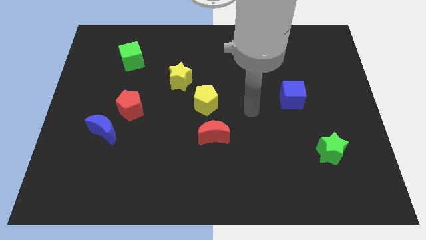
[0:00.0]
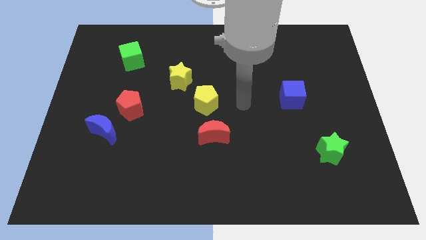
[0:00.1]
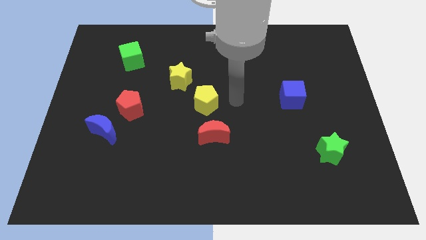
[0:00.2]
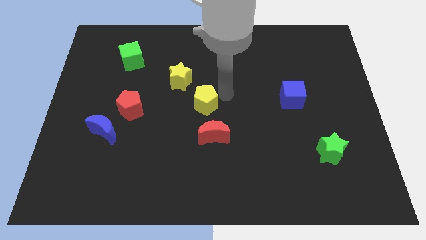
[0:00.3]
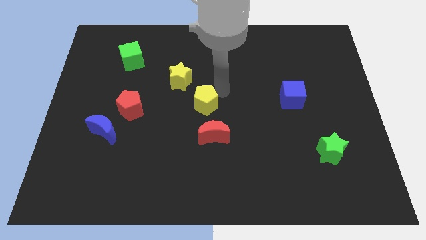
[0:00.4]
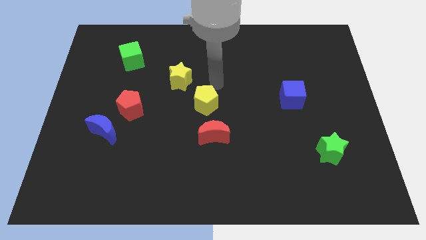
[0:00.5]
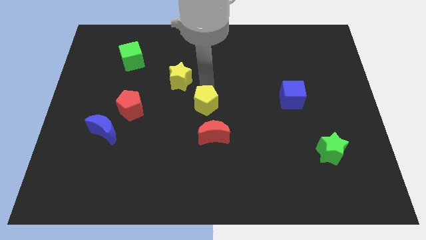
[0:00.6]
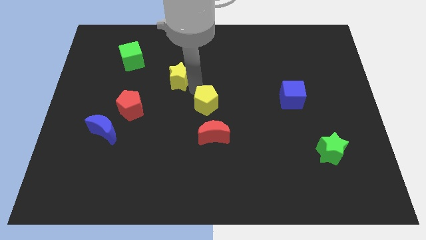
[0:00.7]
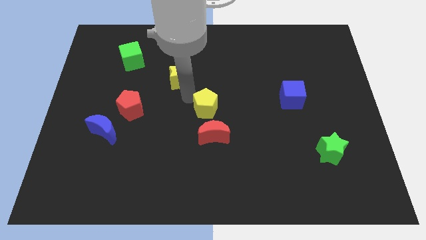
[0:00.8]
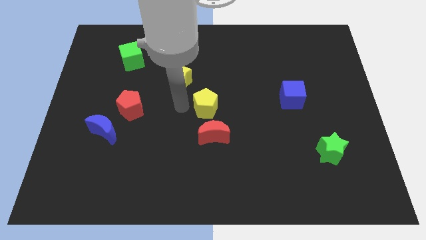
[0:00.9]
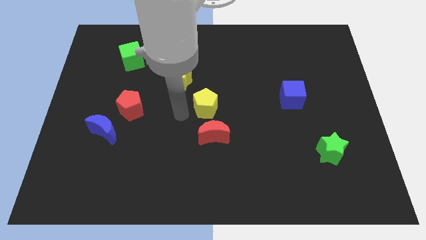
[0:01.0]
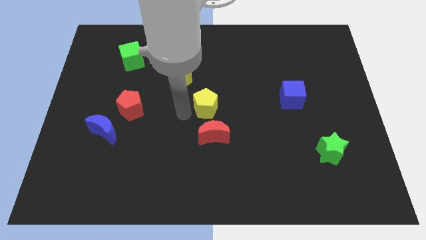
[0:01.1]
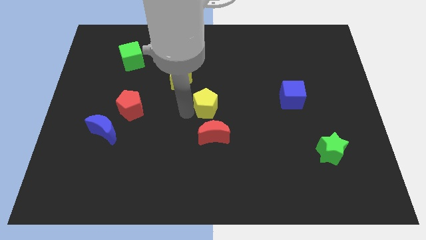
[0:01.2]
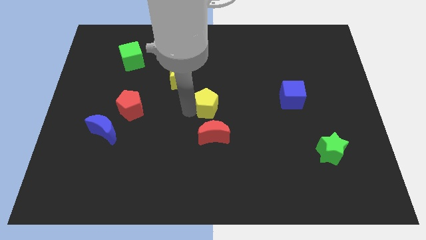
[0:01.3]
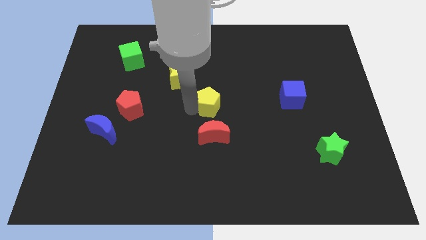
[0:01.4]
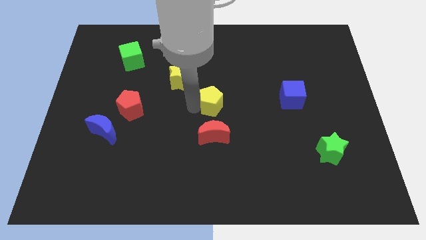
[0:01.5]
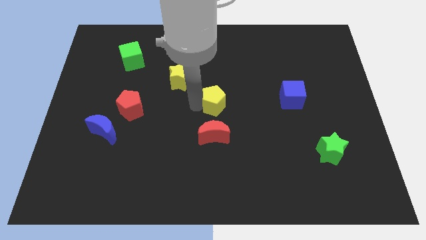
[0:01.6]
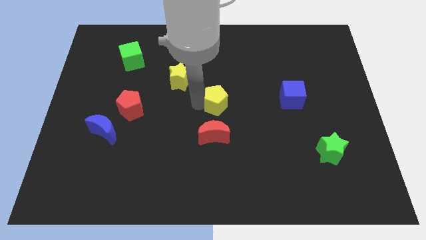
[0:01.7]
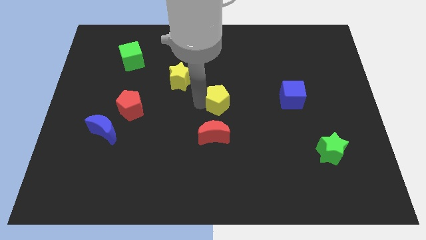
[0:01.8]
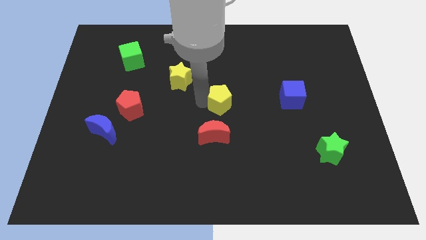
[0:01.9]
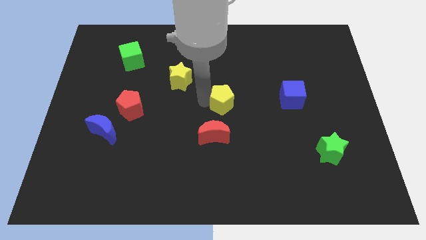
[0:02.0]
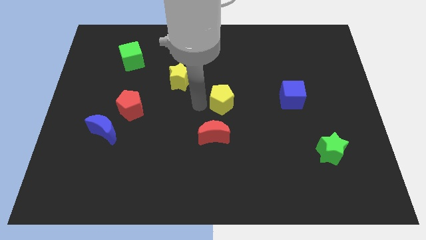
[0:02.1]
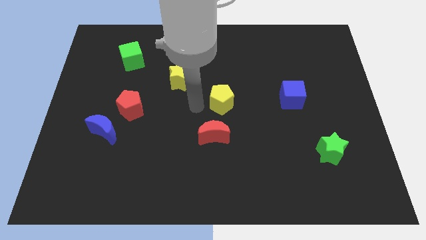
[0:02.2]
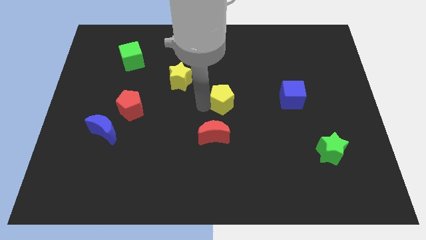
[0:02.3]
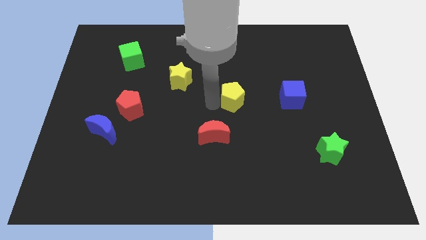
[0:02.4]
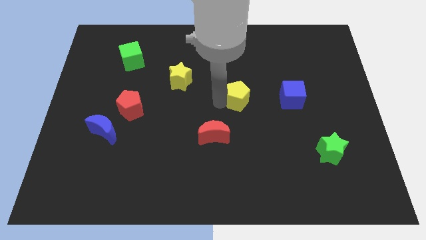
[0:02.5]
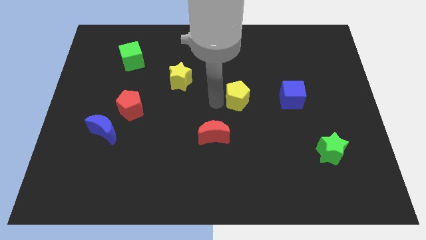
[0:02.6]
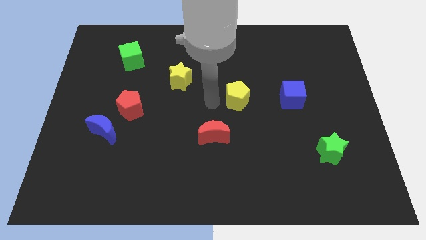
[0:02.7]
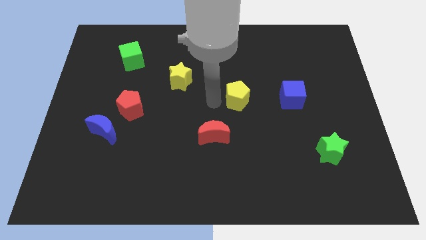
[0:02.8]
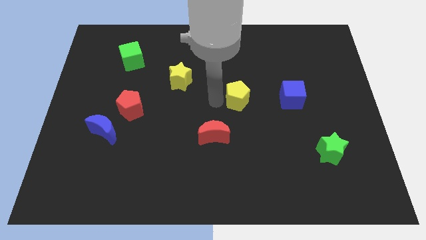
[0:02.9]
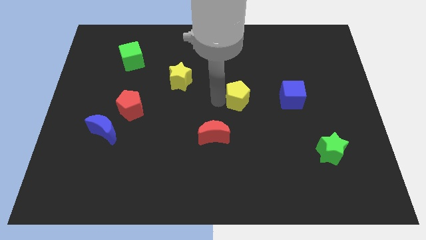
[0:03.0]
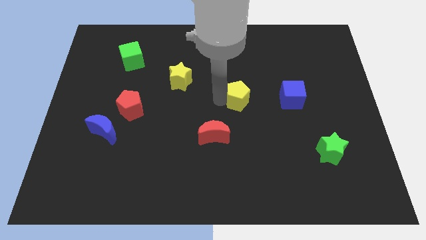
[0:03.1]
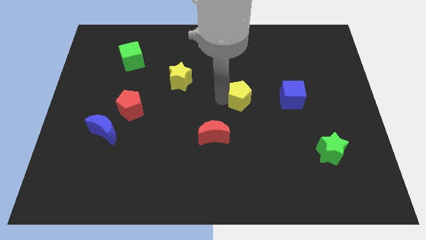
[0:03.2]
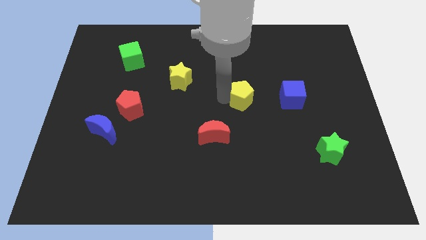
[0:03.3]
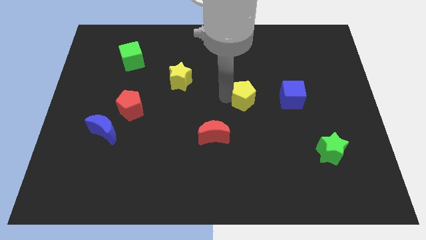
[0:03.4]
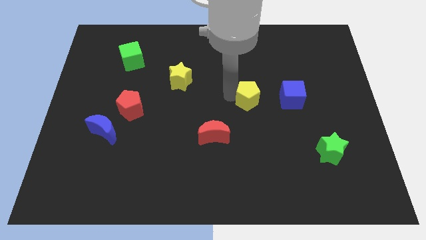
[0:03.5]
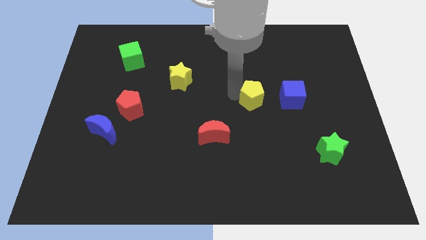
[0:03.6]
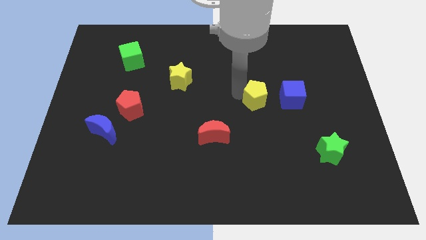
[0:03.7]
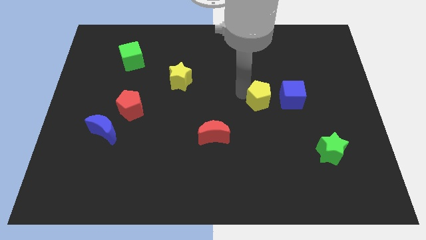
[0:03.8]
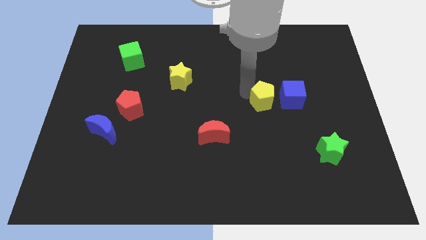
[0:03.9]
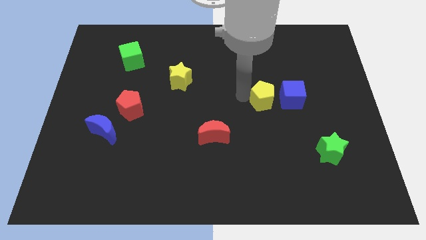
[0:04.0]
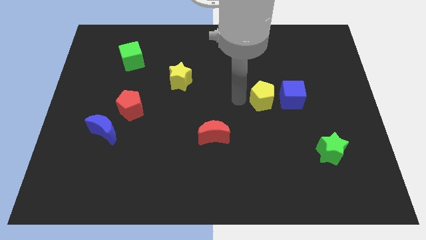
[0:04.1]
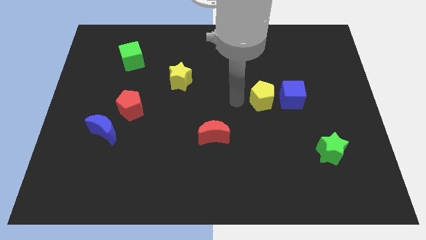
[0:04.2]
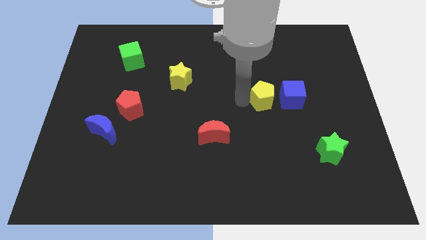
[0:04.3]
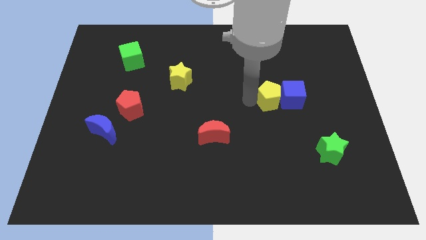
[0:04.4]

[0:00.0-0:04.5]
slide the yellow pentagon close to the blue cube

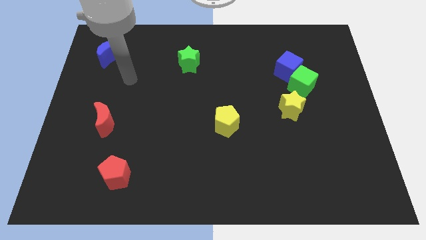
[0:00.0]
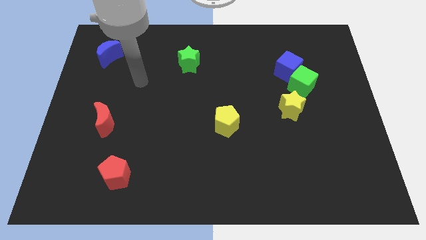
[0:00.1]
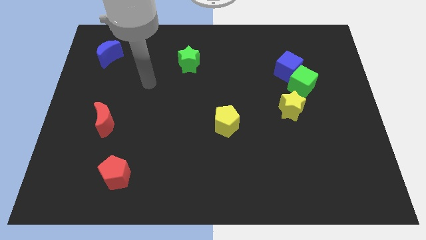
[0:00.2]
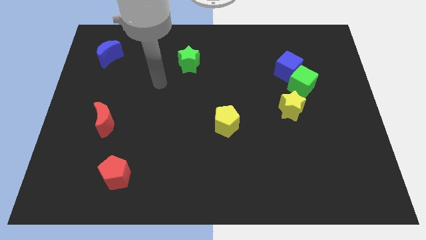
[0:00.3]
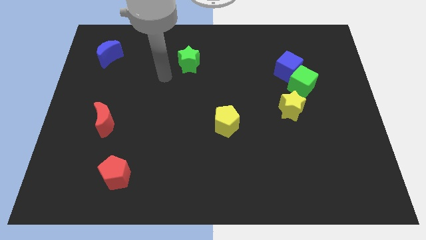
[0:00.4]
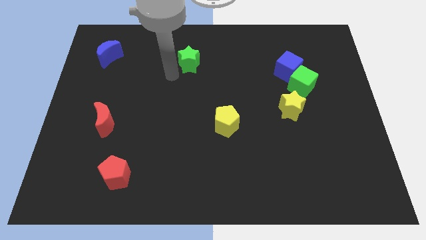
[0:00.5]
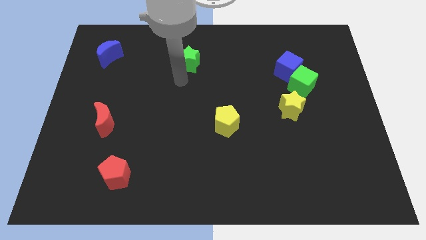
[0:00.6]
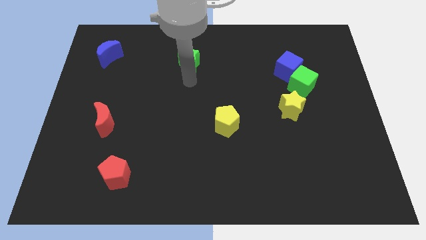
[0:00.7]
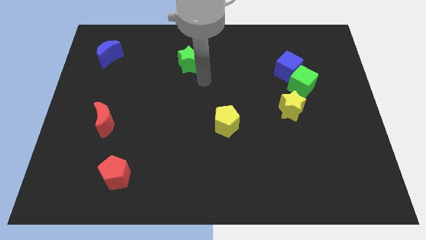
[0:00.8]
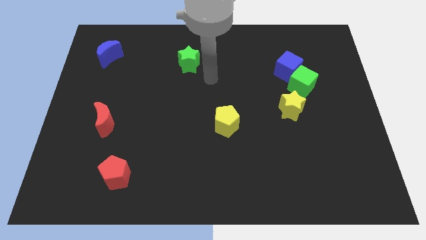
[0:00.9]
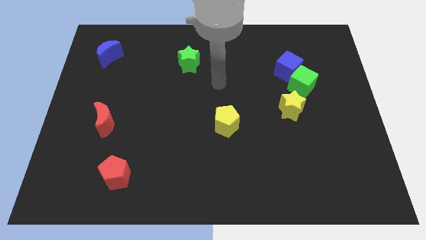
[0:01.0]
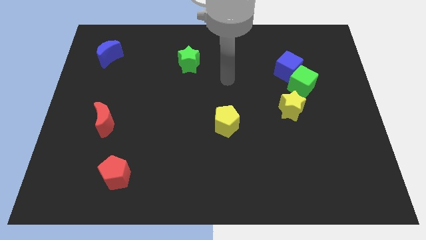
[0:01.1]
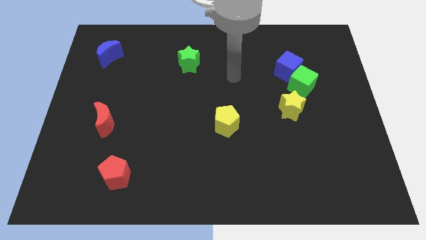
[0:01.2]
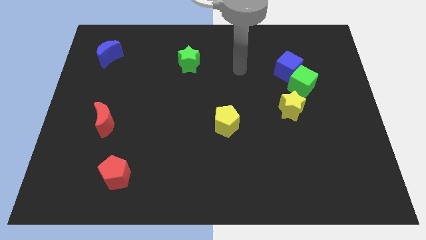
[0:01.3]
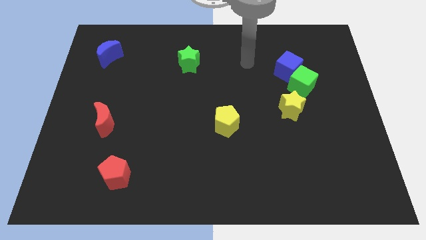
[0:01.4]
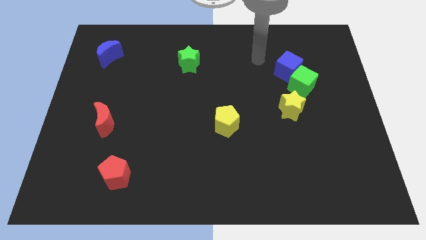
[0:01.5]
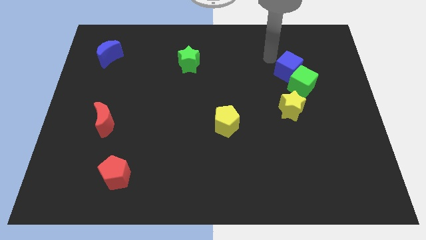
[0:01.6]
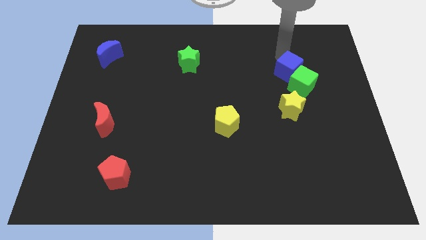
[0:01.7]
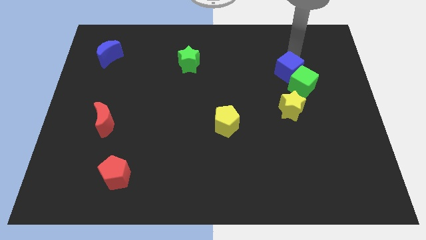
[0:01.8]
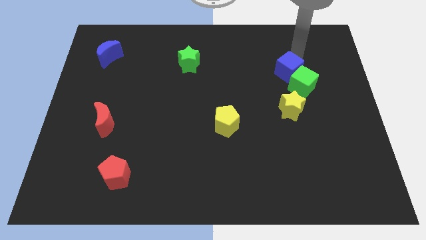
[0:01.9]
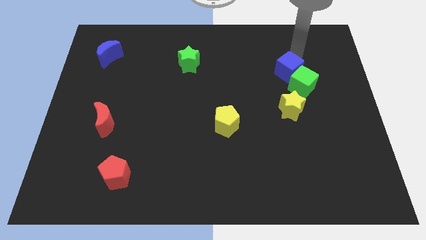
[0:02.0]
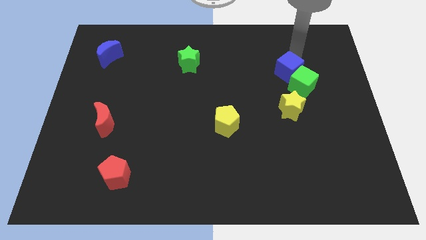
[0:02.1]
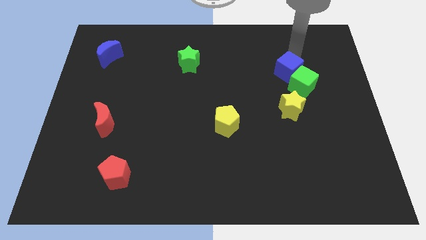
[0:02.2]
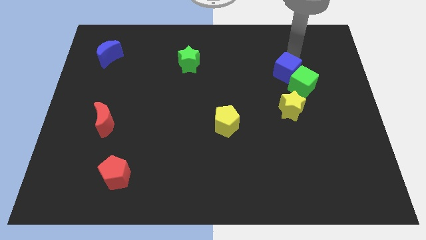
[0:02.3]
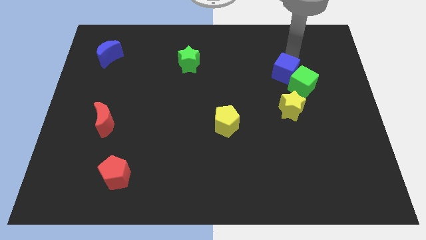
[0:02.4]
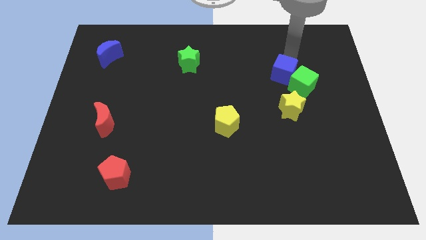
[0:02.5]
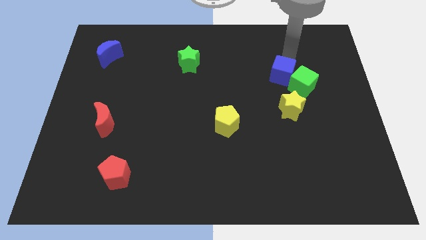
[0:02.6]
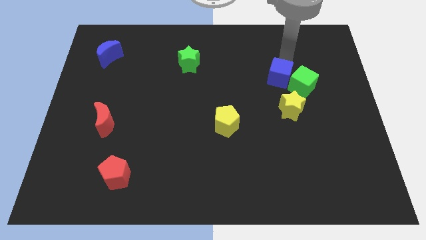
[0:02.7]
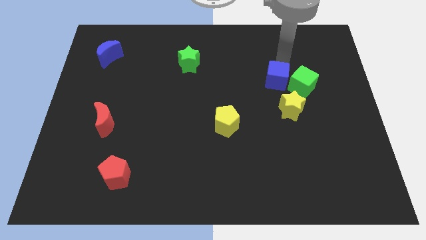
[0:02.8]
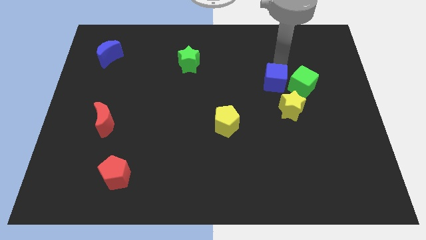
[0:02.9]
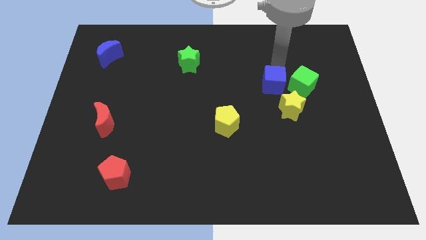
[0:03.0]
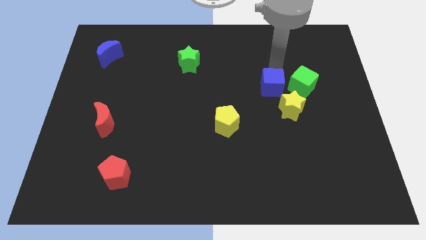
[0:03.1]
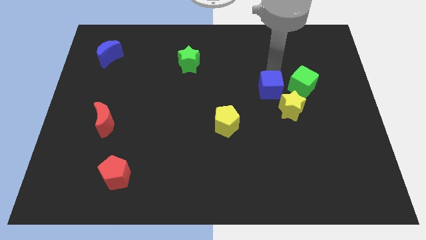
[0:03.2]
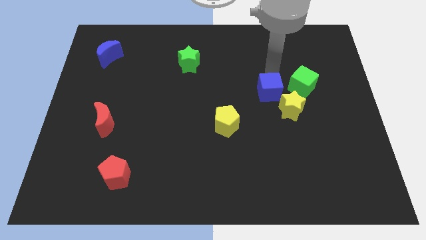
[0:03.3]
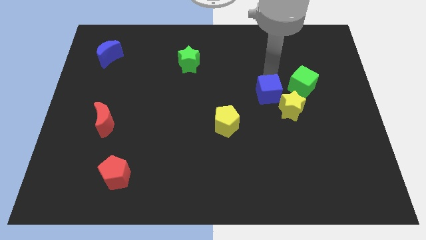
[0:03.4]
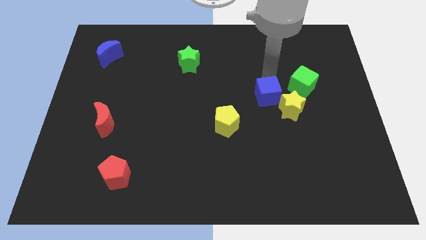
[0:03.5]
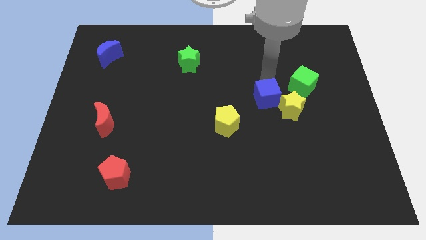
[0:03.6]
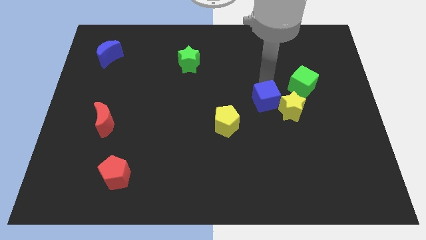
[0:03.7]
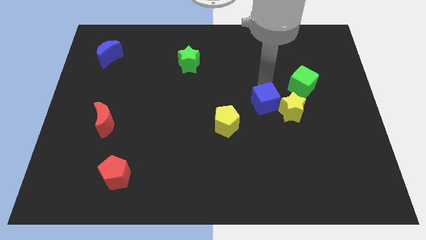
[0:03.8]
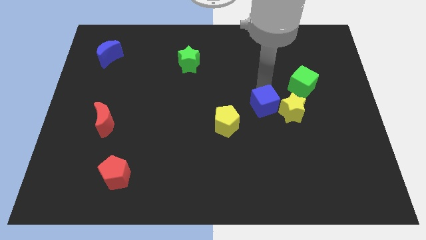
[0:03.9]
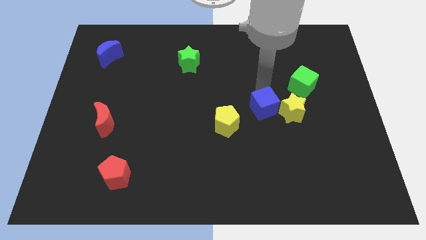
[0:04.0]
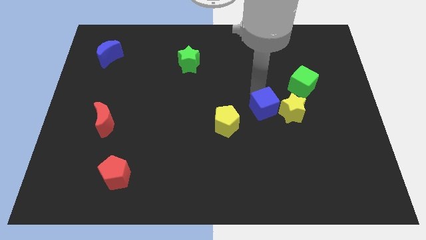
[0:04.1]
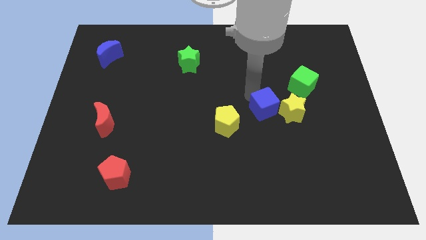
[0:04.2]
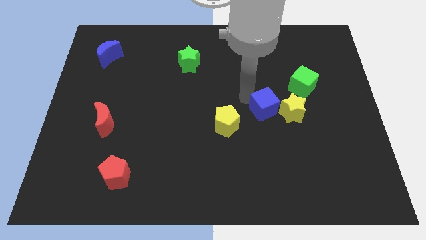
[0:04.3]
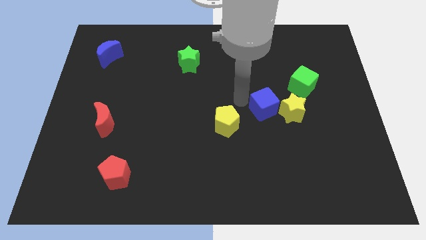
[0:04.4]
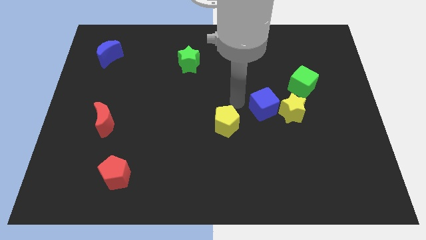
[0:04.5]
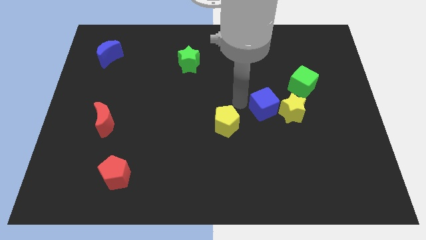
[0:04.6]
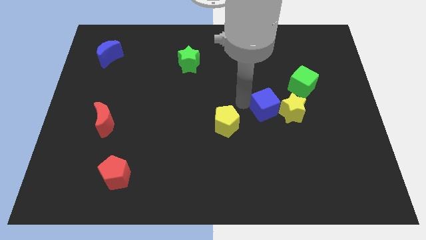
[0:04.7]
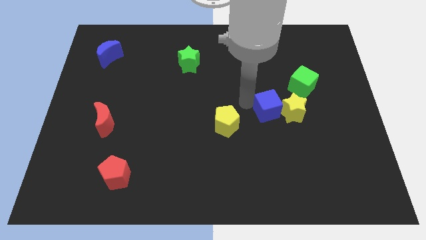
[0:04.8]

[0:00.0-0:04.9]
slide the blue cube towards the yellow star
